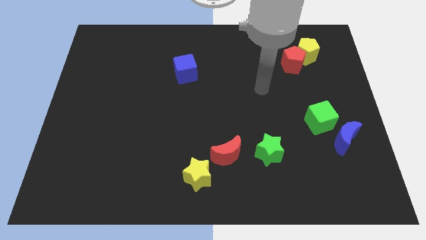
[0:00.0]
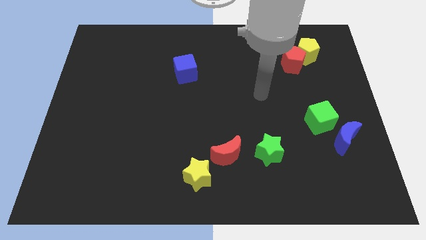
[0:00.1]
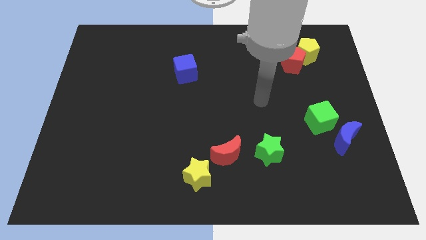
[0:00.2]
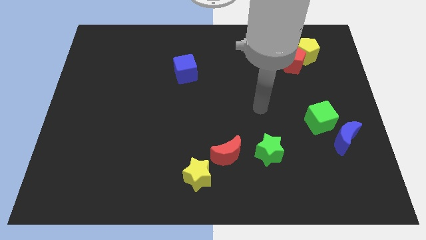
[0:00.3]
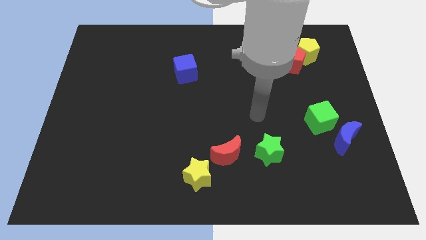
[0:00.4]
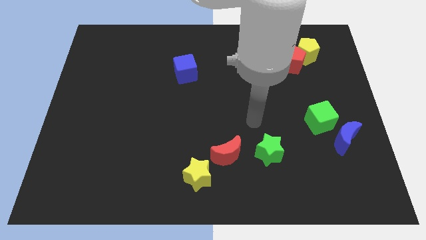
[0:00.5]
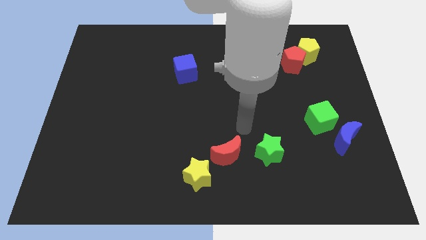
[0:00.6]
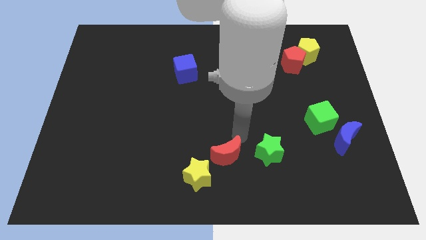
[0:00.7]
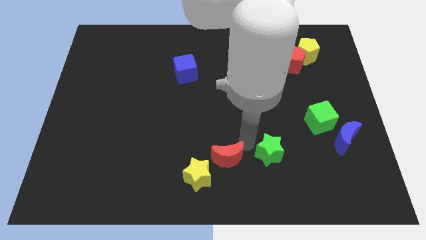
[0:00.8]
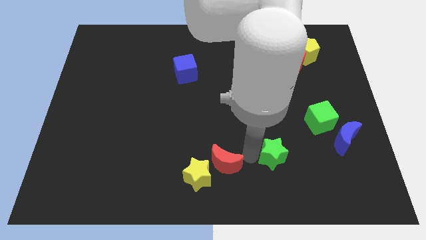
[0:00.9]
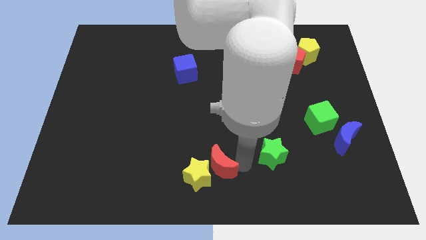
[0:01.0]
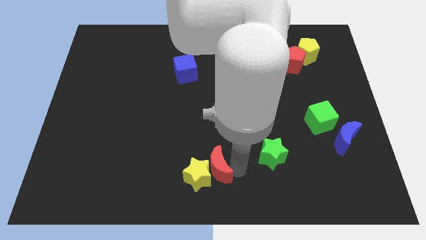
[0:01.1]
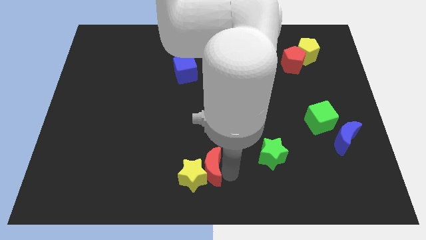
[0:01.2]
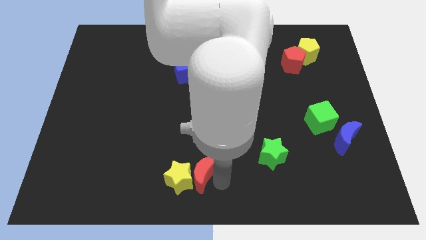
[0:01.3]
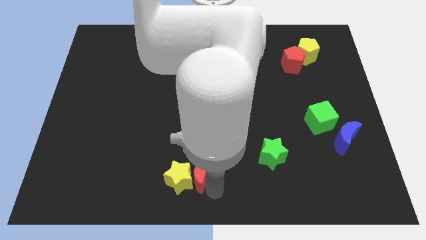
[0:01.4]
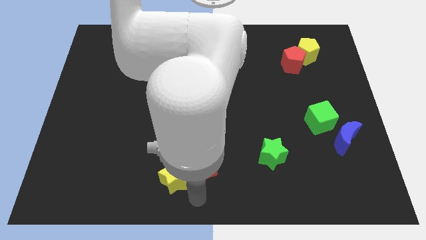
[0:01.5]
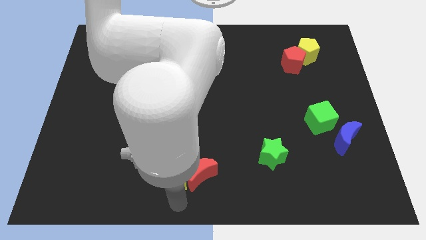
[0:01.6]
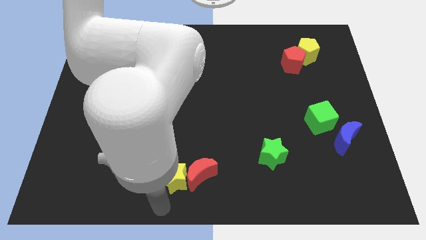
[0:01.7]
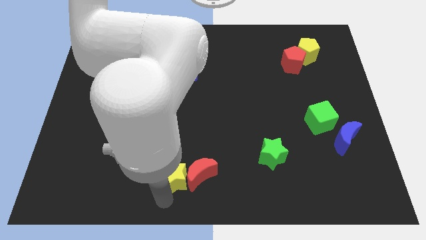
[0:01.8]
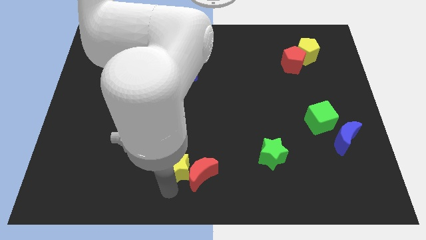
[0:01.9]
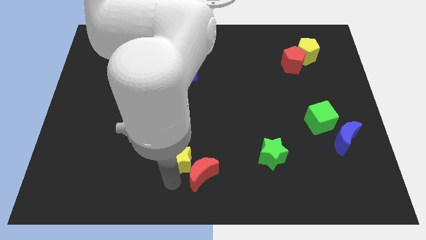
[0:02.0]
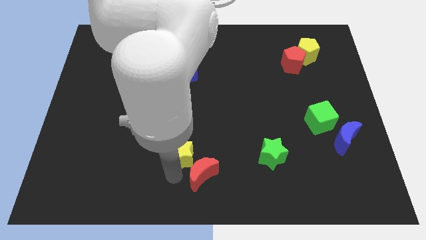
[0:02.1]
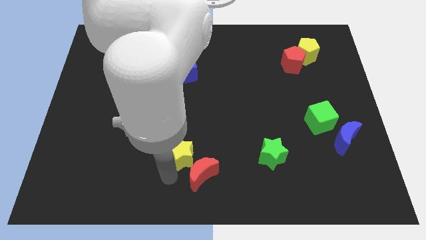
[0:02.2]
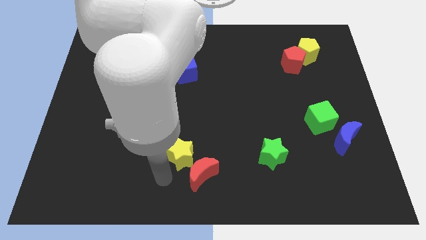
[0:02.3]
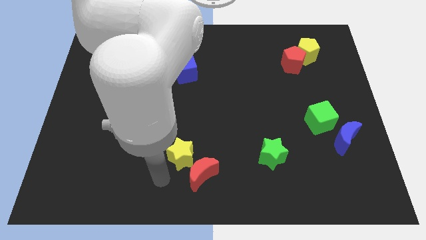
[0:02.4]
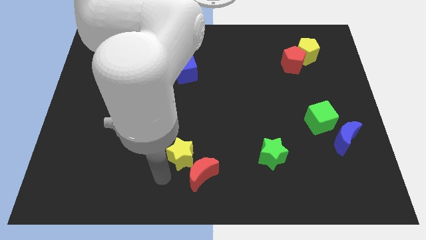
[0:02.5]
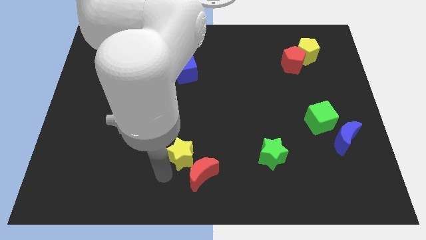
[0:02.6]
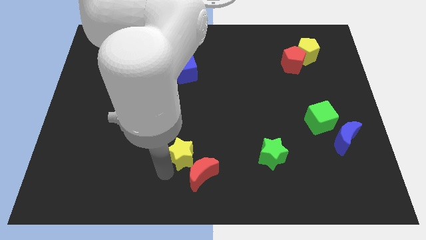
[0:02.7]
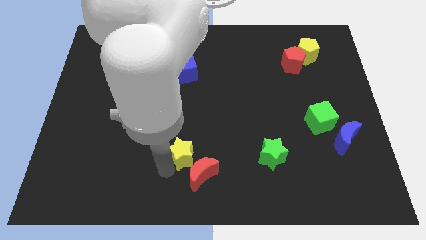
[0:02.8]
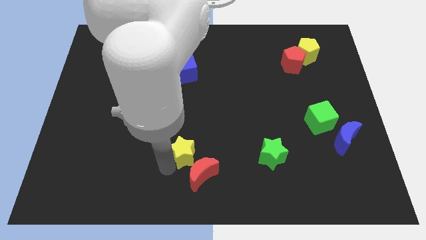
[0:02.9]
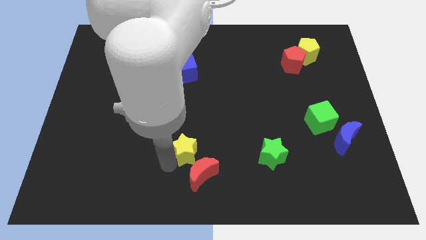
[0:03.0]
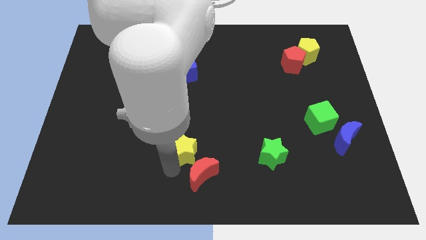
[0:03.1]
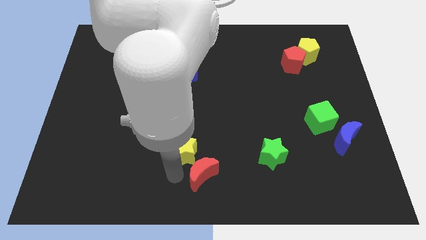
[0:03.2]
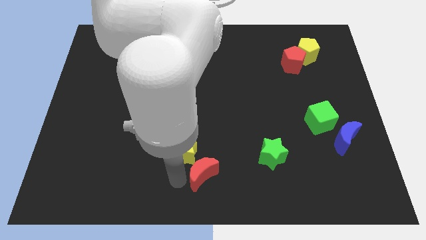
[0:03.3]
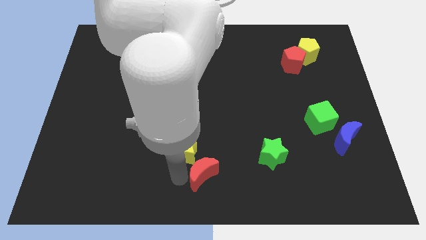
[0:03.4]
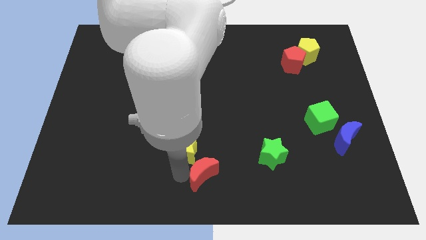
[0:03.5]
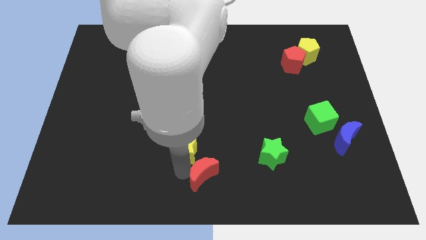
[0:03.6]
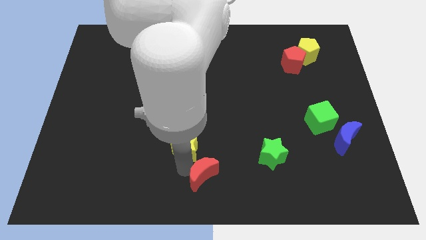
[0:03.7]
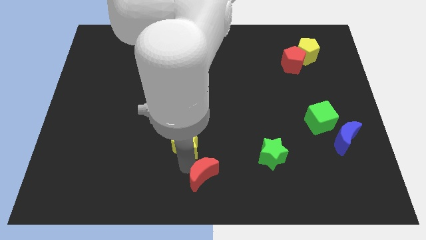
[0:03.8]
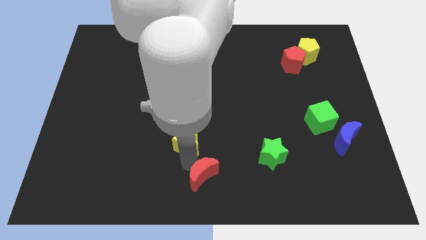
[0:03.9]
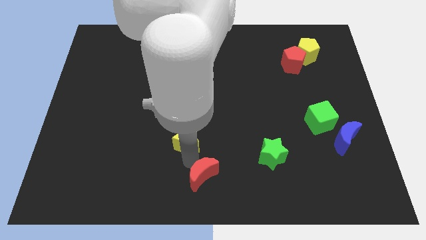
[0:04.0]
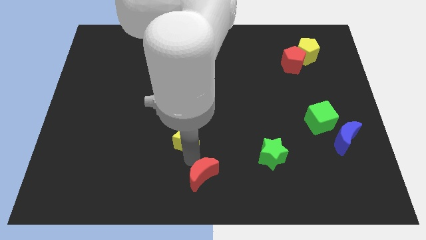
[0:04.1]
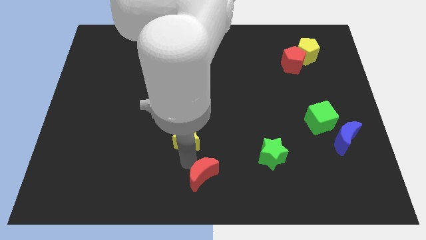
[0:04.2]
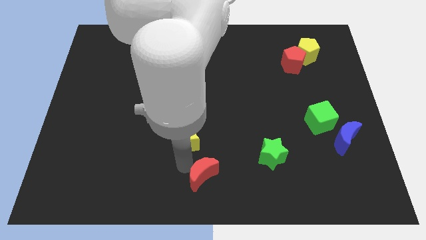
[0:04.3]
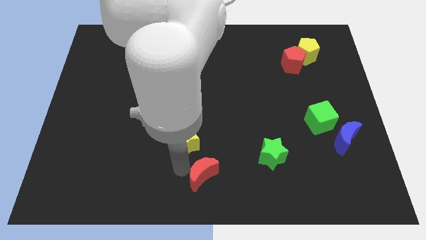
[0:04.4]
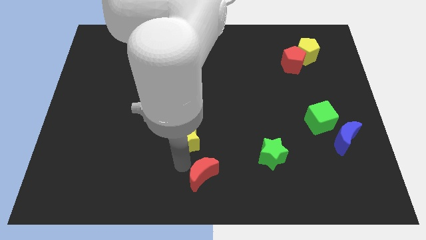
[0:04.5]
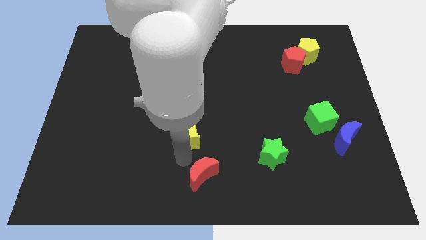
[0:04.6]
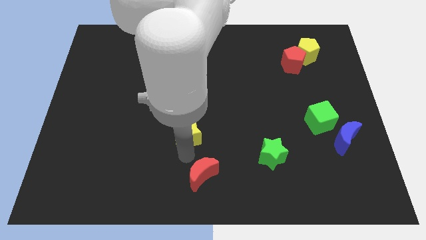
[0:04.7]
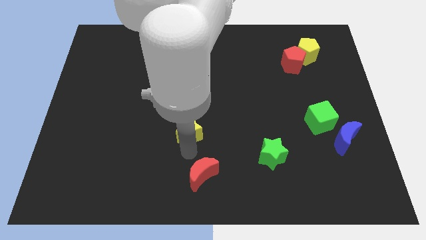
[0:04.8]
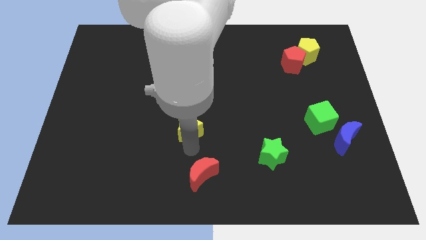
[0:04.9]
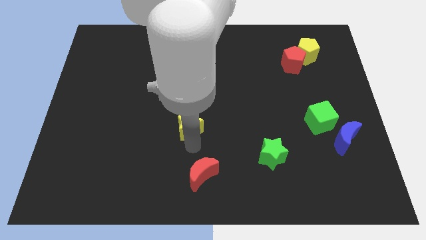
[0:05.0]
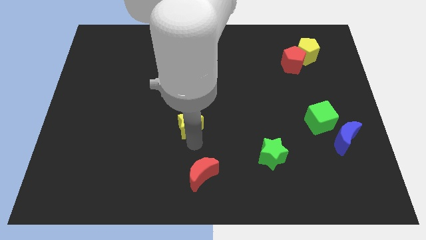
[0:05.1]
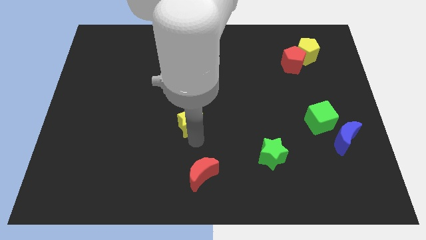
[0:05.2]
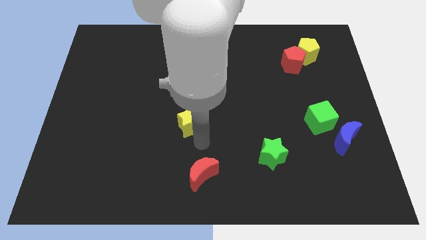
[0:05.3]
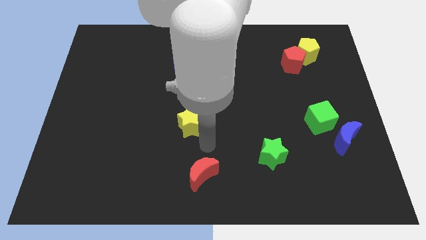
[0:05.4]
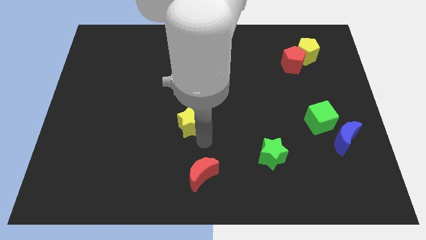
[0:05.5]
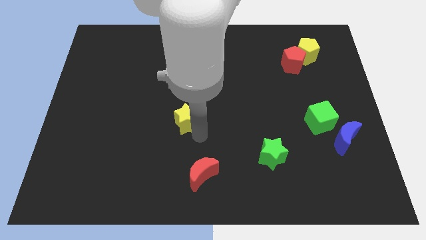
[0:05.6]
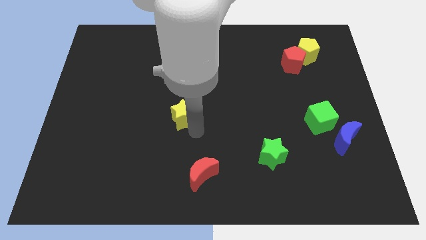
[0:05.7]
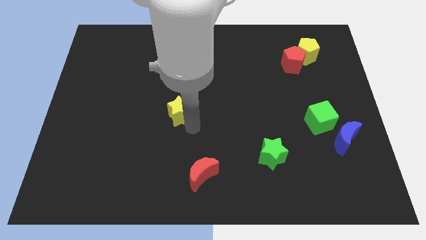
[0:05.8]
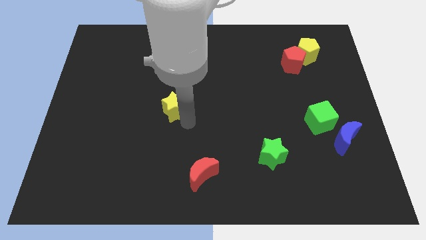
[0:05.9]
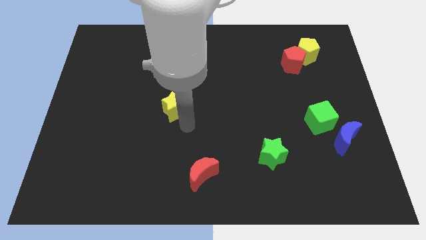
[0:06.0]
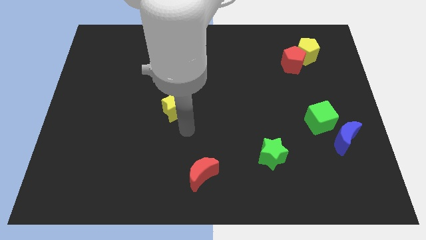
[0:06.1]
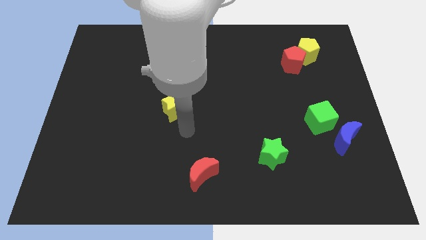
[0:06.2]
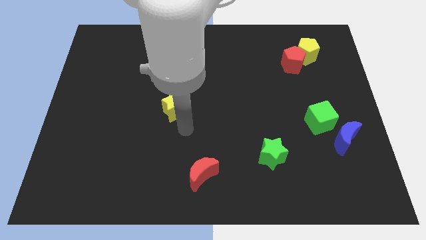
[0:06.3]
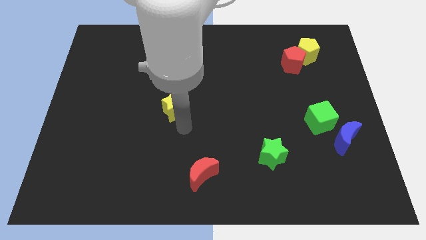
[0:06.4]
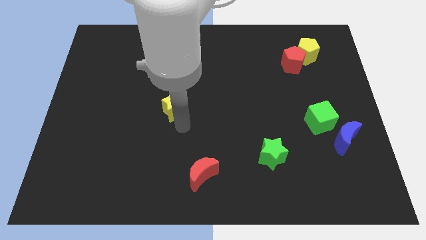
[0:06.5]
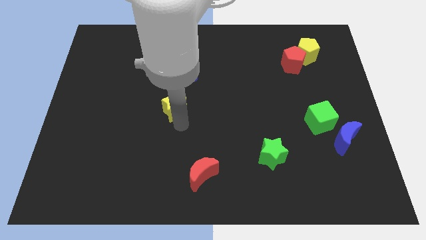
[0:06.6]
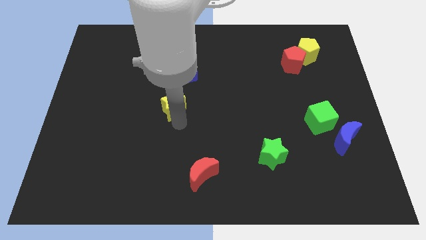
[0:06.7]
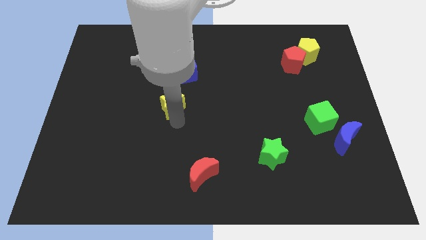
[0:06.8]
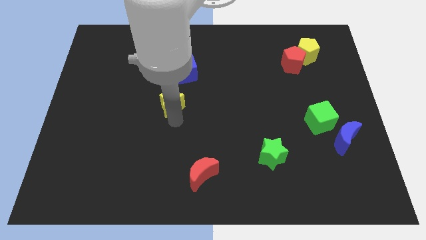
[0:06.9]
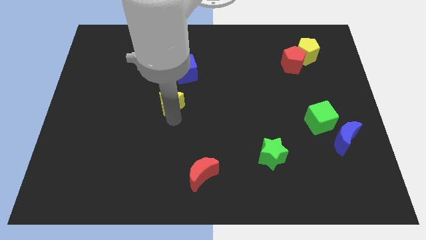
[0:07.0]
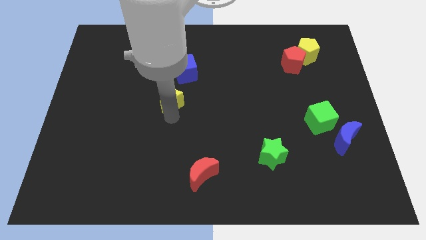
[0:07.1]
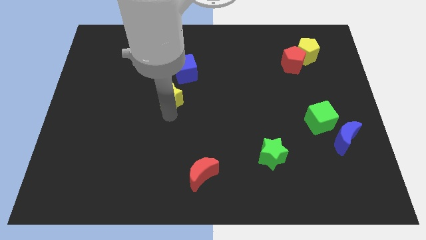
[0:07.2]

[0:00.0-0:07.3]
push the yellow star diagonally down and to the left of the blue cube
